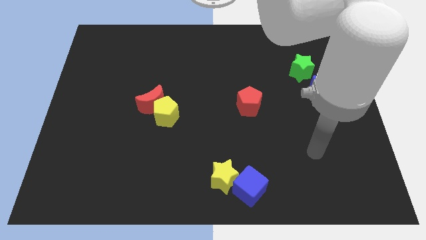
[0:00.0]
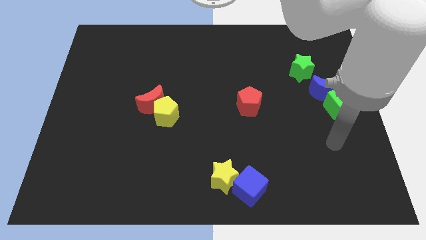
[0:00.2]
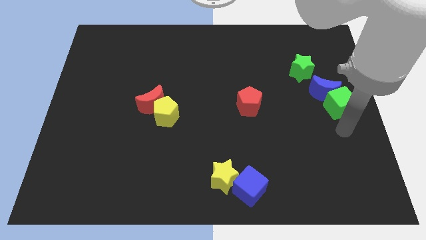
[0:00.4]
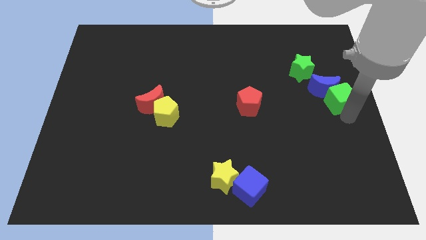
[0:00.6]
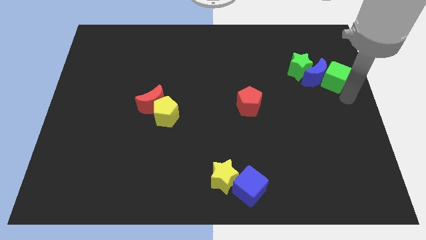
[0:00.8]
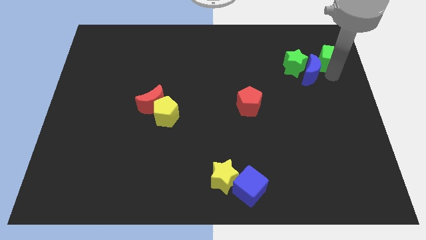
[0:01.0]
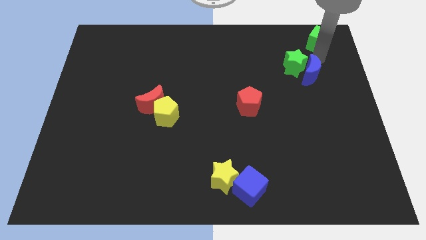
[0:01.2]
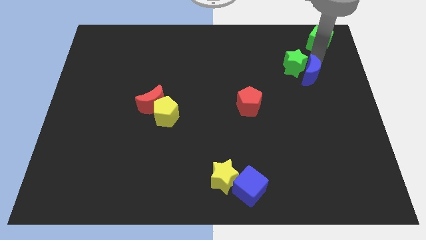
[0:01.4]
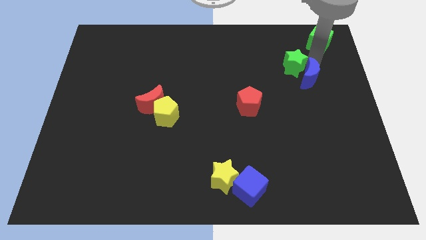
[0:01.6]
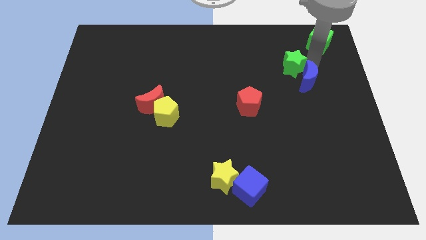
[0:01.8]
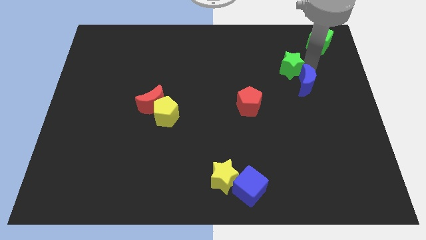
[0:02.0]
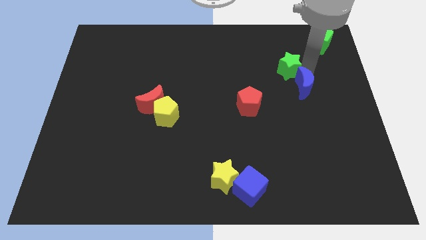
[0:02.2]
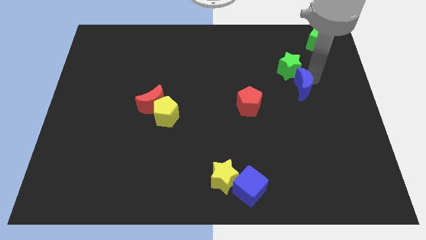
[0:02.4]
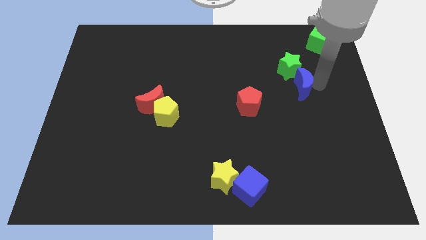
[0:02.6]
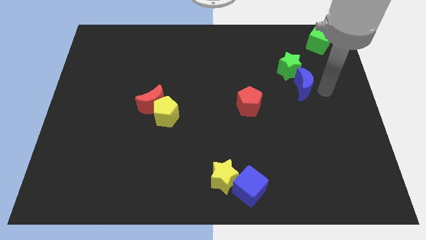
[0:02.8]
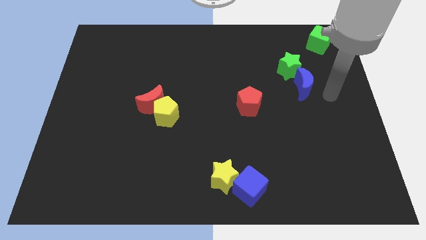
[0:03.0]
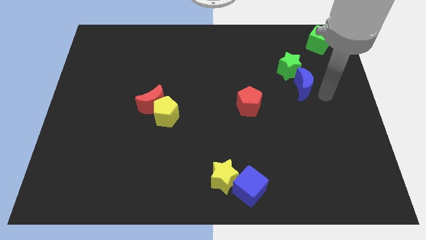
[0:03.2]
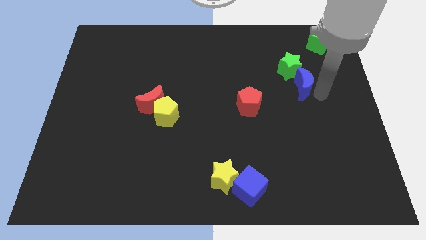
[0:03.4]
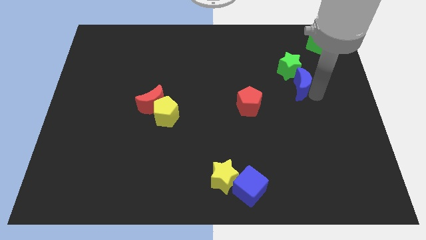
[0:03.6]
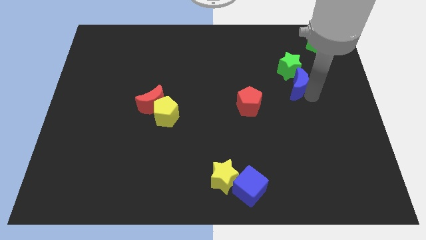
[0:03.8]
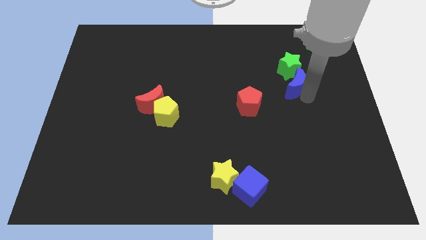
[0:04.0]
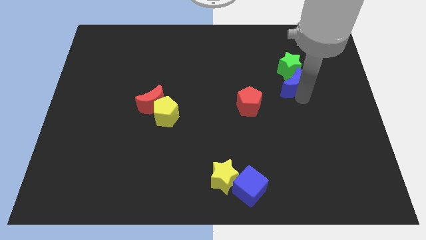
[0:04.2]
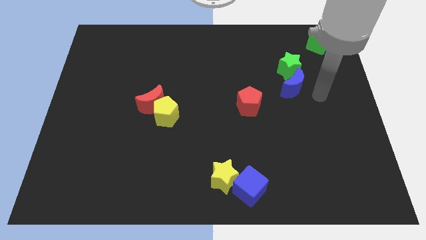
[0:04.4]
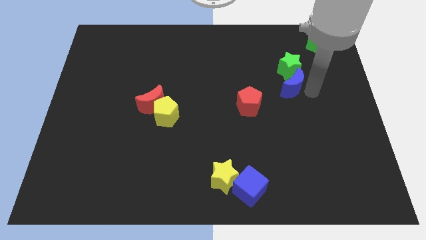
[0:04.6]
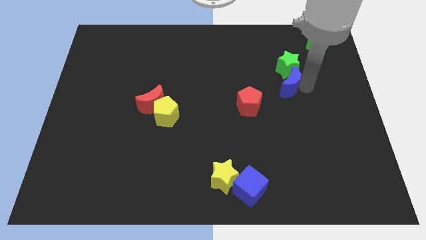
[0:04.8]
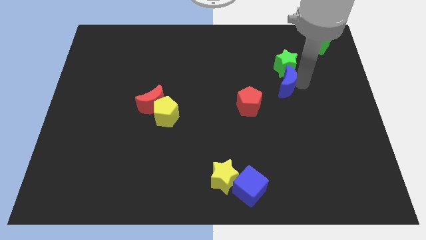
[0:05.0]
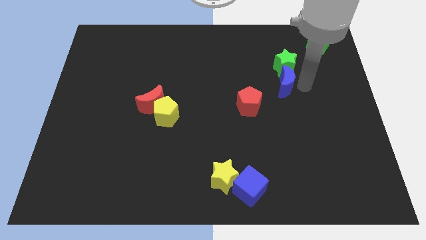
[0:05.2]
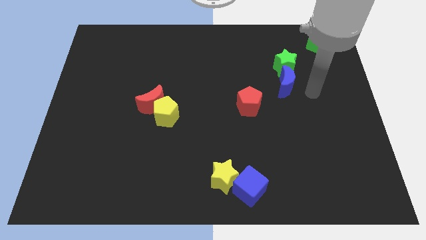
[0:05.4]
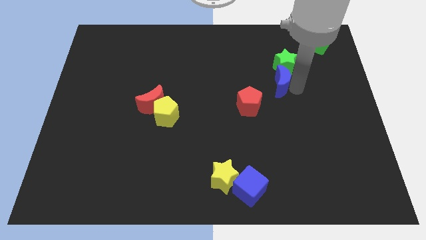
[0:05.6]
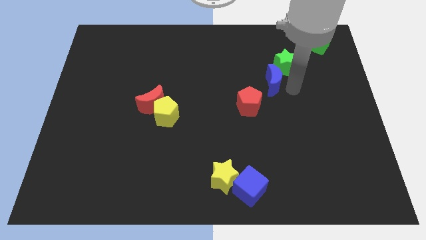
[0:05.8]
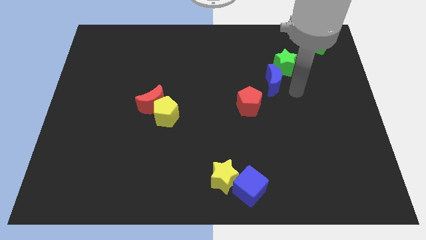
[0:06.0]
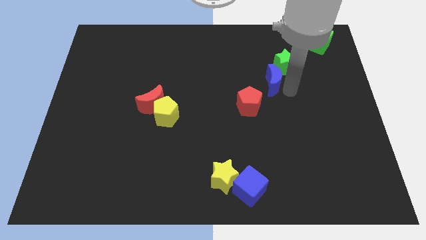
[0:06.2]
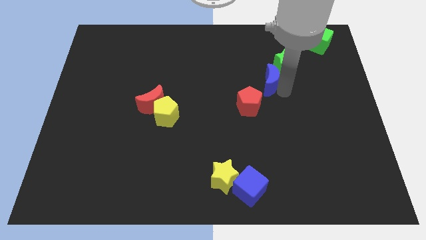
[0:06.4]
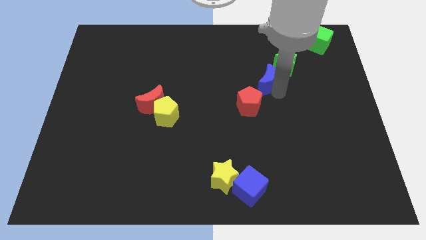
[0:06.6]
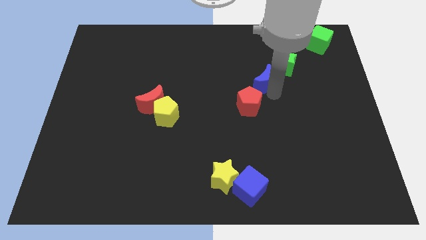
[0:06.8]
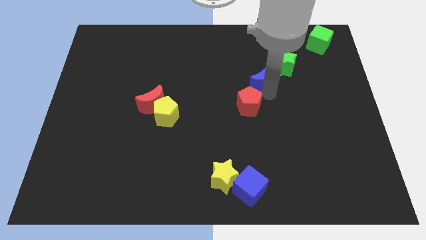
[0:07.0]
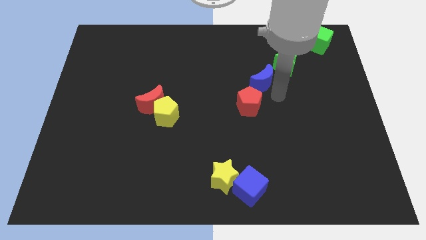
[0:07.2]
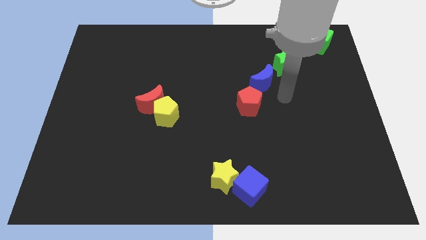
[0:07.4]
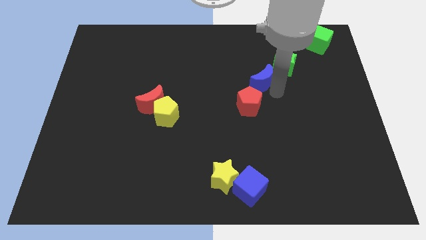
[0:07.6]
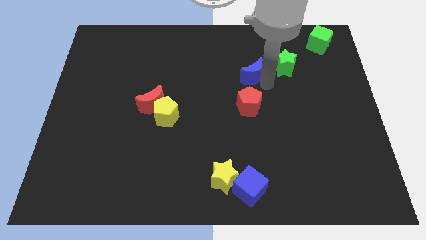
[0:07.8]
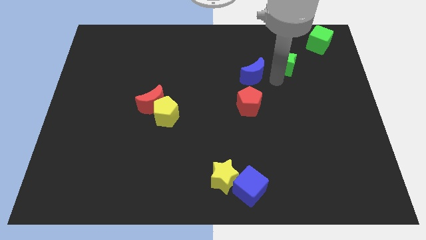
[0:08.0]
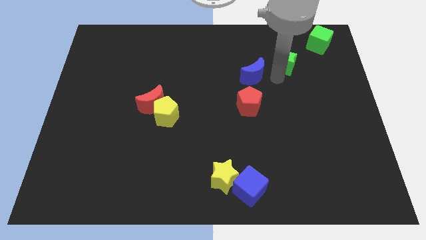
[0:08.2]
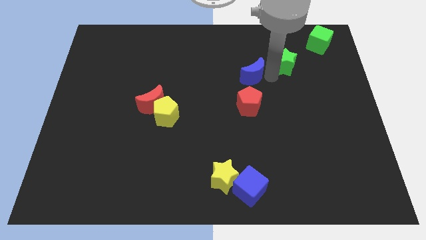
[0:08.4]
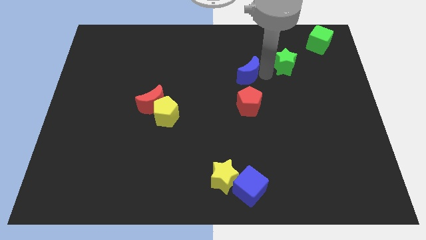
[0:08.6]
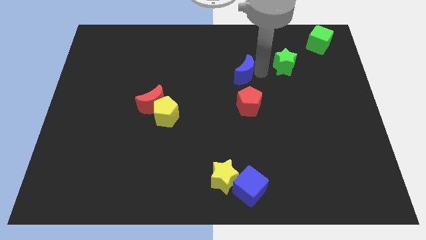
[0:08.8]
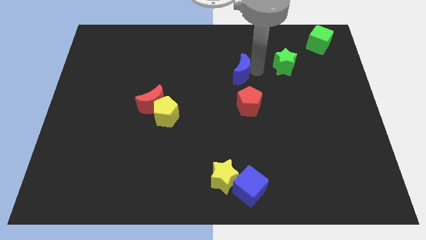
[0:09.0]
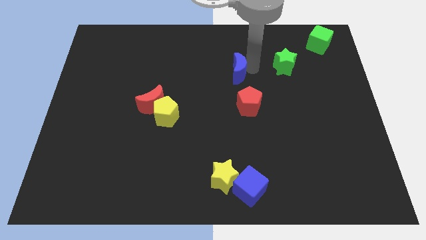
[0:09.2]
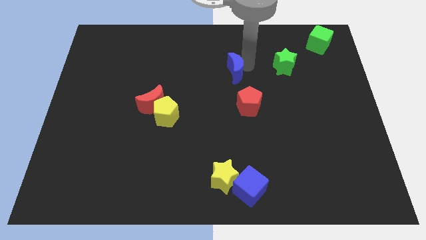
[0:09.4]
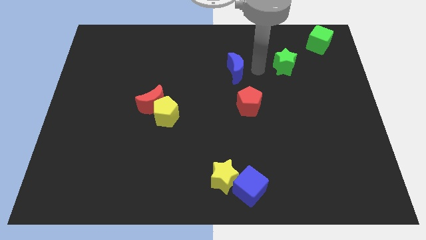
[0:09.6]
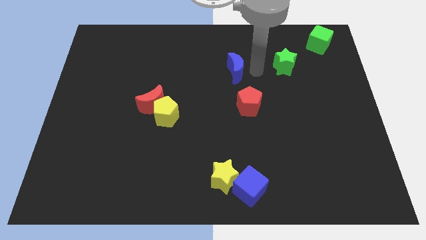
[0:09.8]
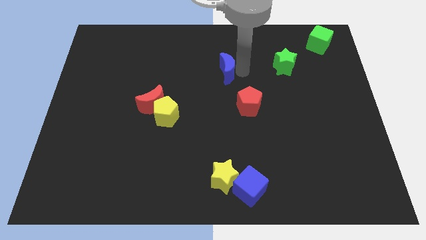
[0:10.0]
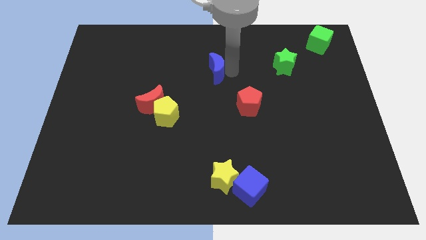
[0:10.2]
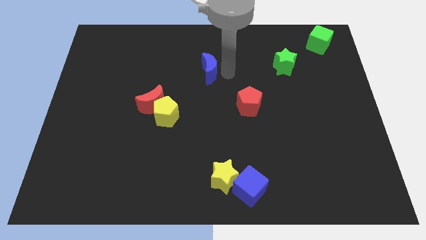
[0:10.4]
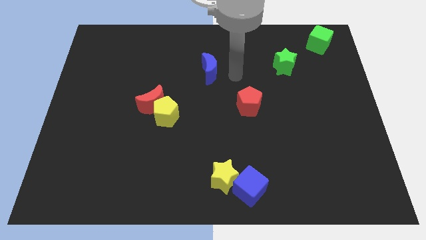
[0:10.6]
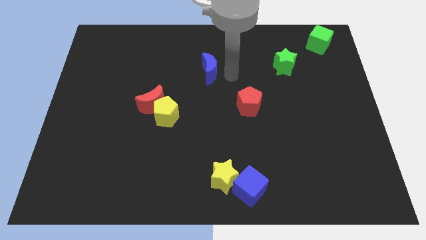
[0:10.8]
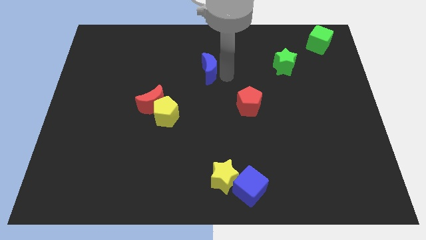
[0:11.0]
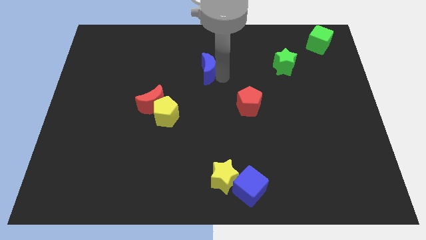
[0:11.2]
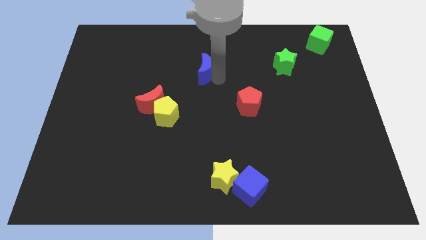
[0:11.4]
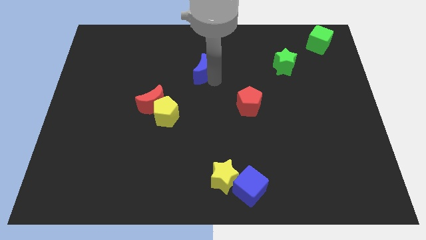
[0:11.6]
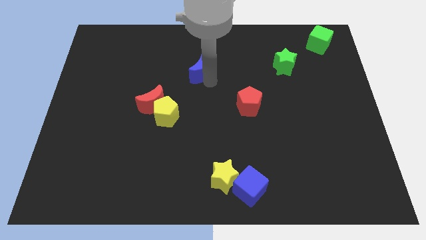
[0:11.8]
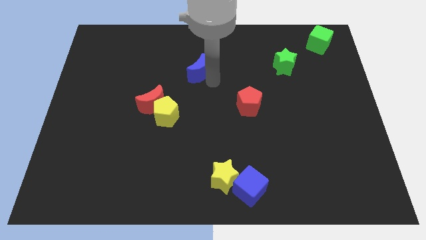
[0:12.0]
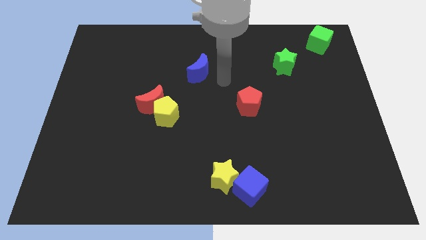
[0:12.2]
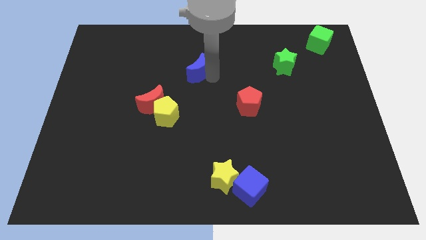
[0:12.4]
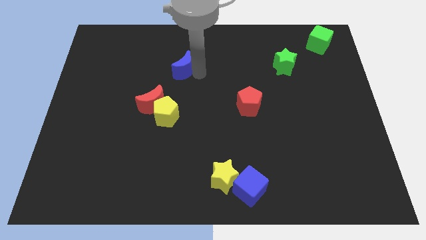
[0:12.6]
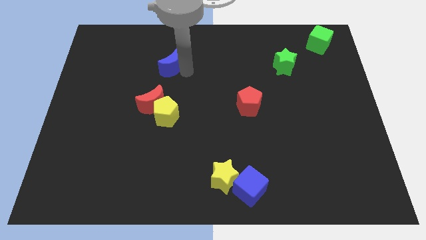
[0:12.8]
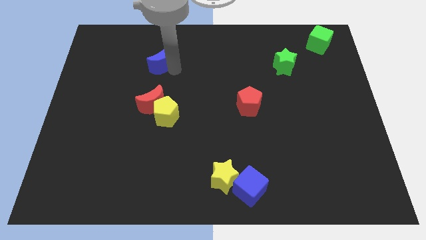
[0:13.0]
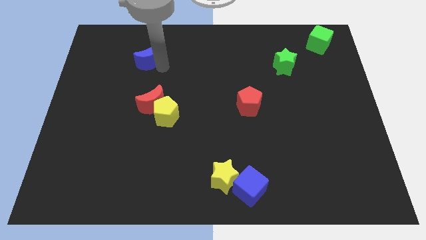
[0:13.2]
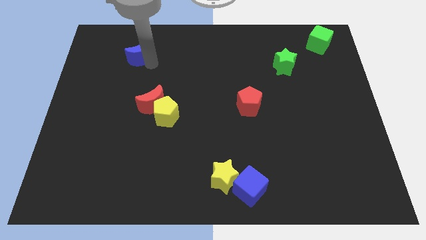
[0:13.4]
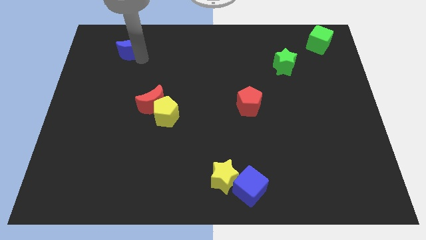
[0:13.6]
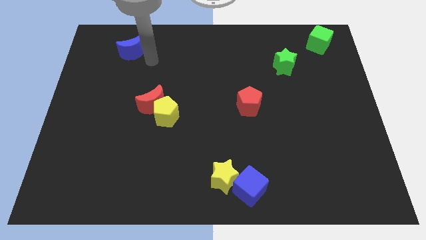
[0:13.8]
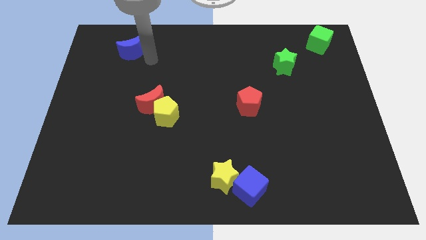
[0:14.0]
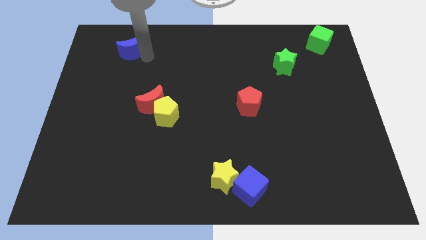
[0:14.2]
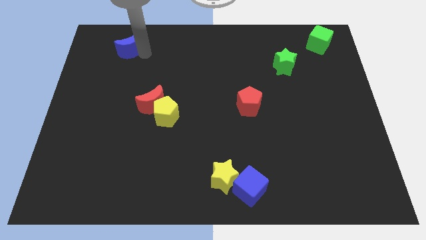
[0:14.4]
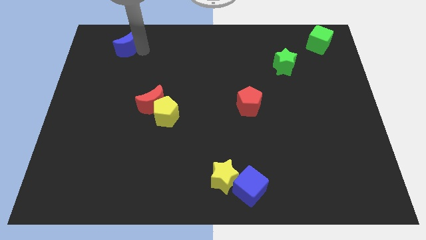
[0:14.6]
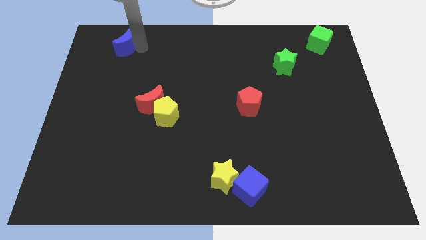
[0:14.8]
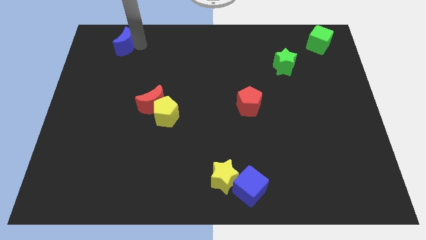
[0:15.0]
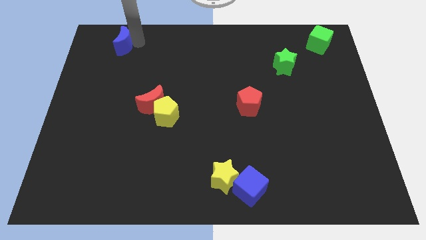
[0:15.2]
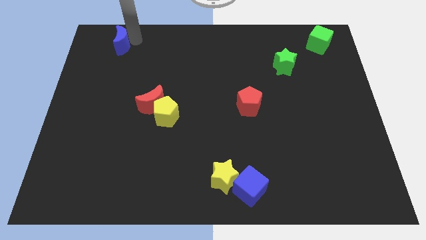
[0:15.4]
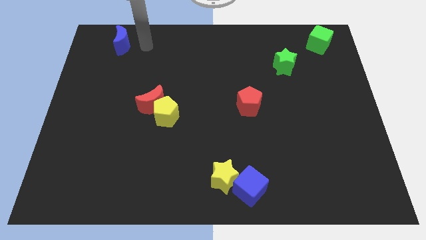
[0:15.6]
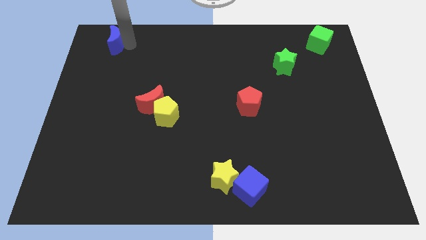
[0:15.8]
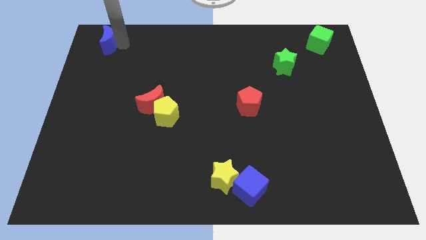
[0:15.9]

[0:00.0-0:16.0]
slide the blue moon to the top left of the board
